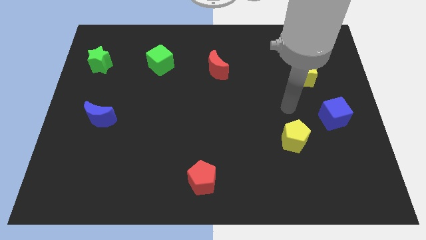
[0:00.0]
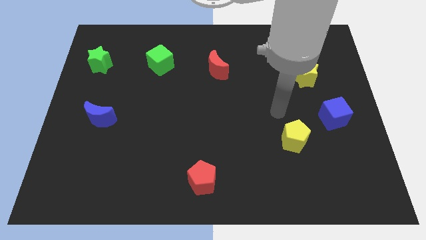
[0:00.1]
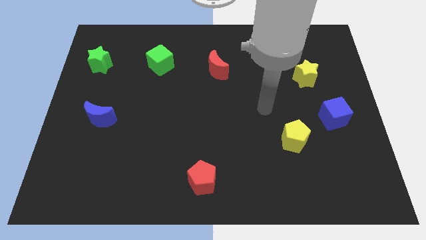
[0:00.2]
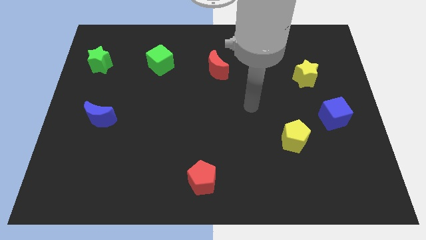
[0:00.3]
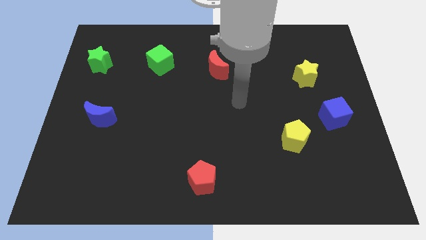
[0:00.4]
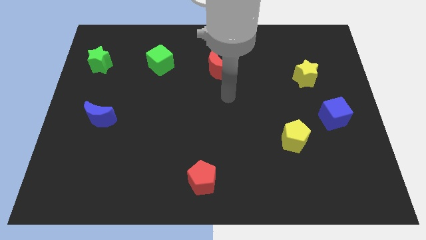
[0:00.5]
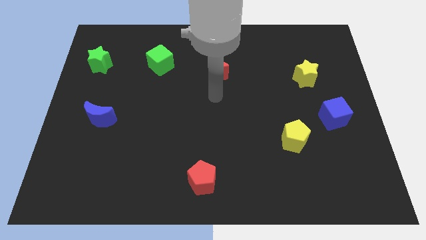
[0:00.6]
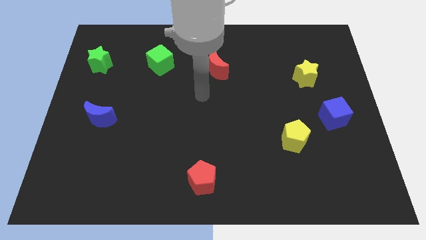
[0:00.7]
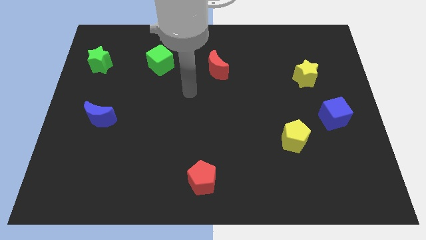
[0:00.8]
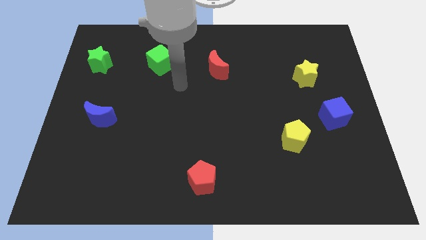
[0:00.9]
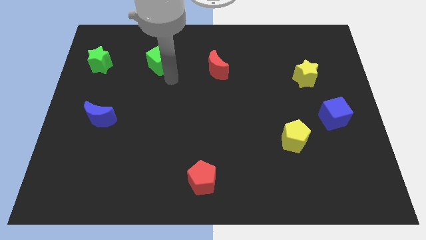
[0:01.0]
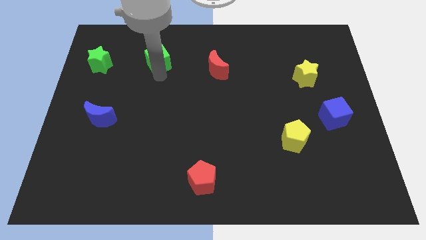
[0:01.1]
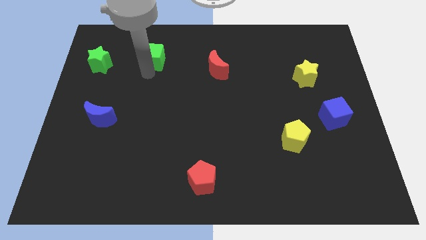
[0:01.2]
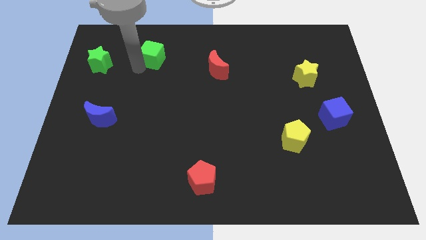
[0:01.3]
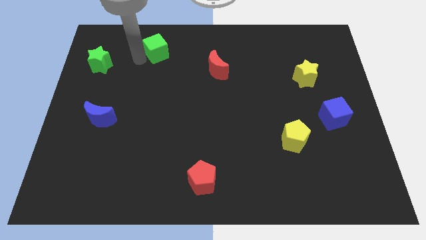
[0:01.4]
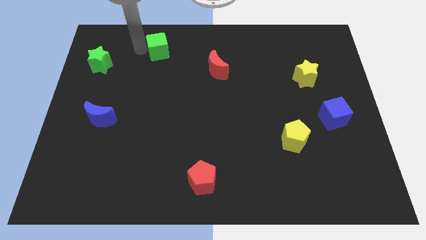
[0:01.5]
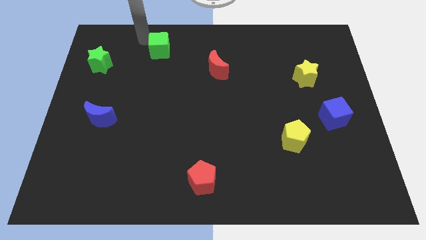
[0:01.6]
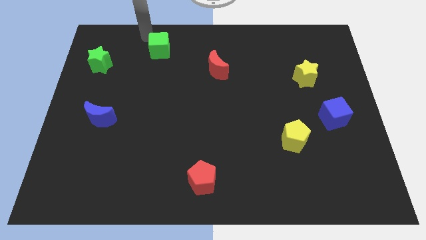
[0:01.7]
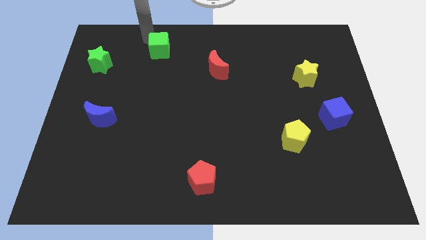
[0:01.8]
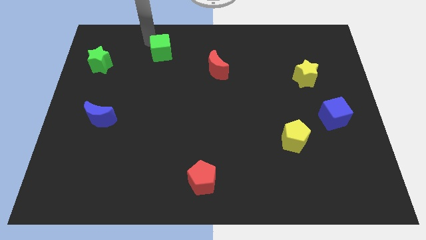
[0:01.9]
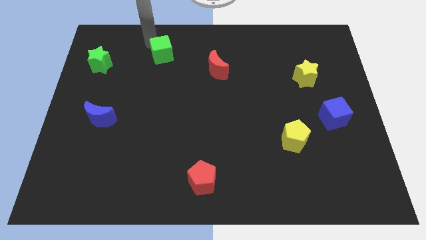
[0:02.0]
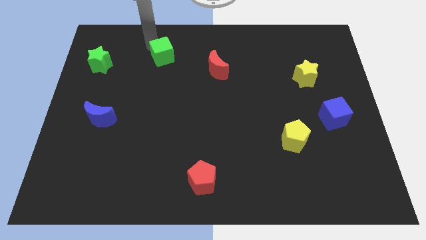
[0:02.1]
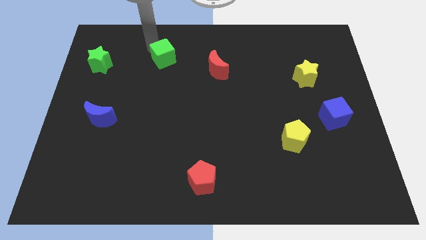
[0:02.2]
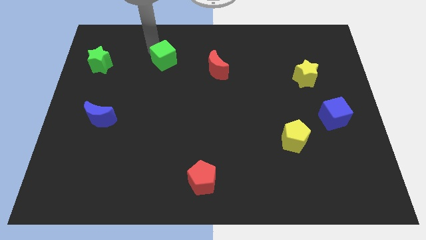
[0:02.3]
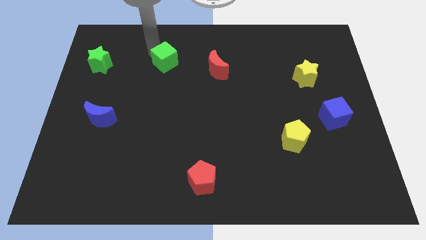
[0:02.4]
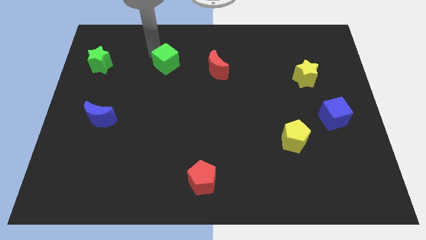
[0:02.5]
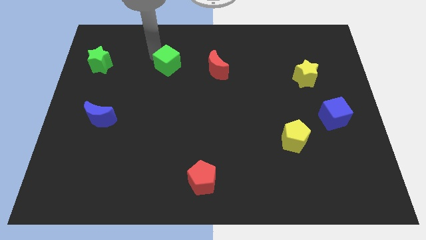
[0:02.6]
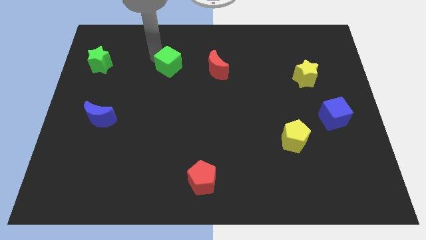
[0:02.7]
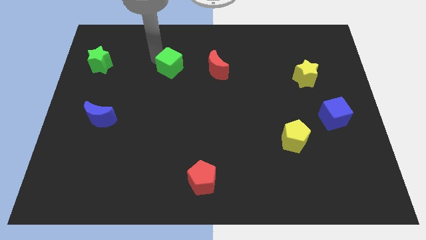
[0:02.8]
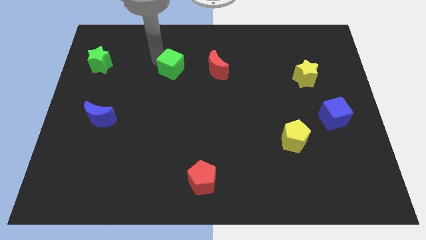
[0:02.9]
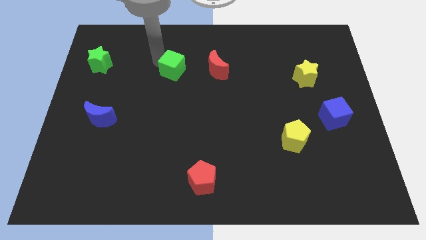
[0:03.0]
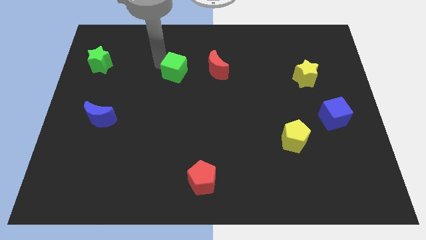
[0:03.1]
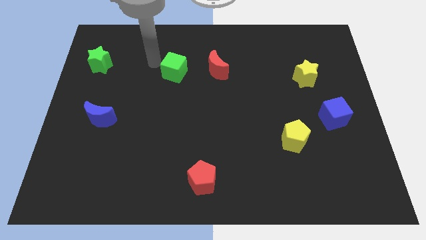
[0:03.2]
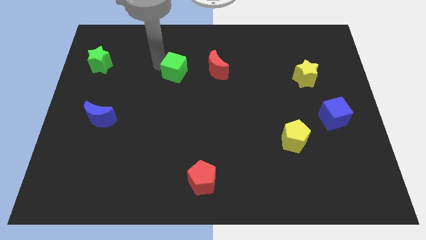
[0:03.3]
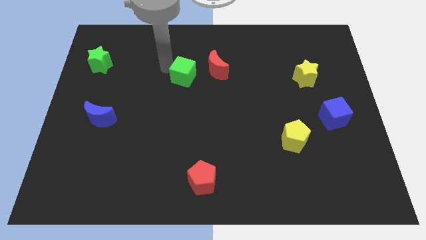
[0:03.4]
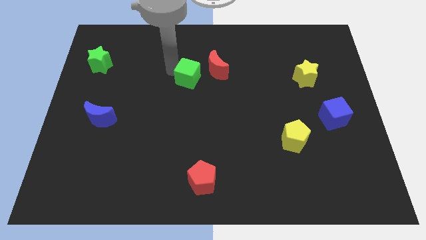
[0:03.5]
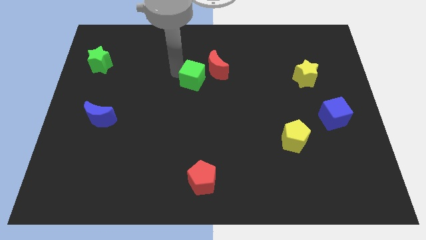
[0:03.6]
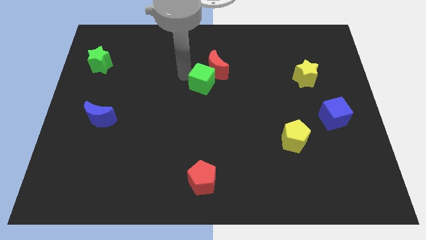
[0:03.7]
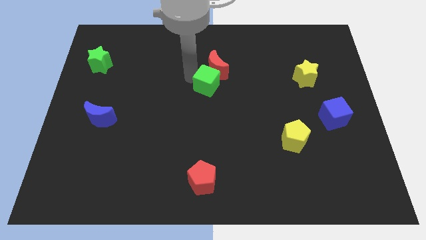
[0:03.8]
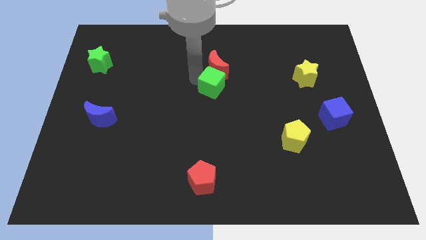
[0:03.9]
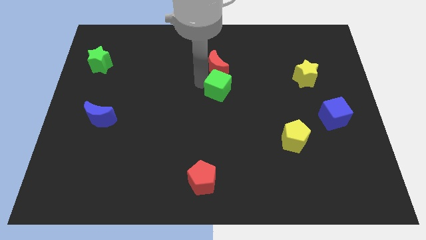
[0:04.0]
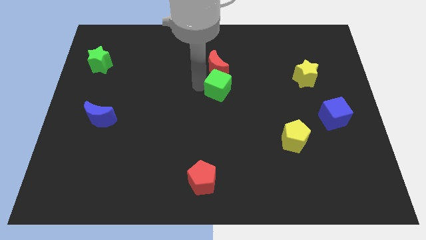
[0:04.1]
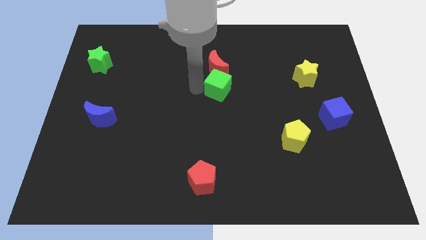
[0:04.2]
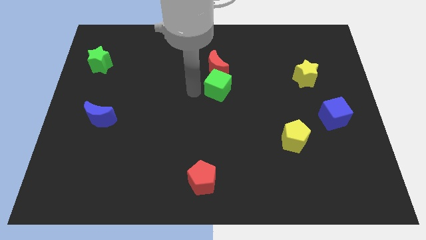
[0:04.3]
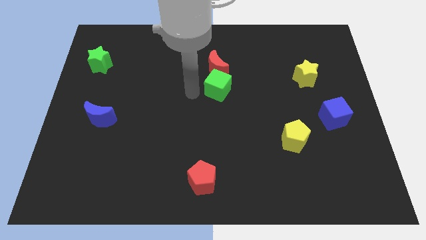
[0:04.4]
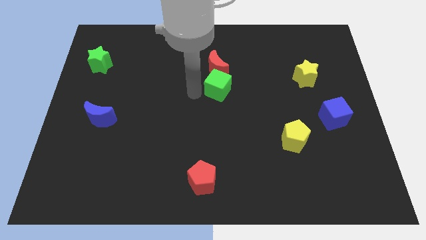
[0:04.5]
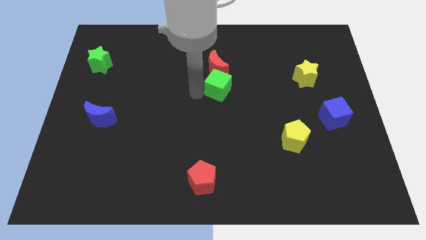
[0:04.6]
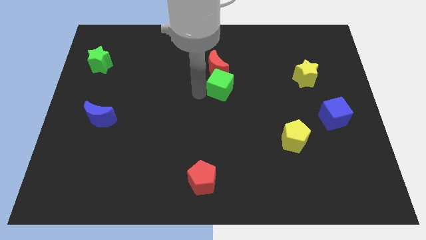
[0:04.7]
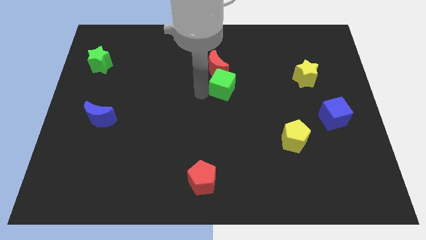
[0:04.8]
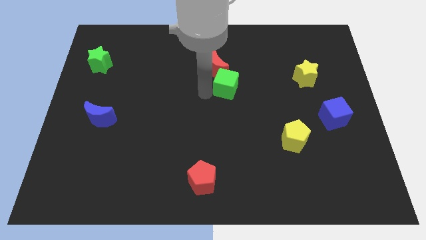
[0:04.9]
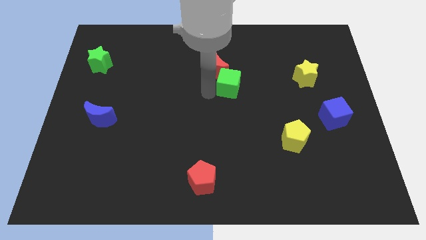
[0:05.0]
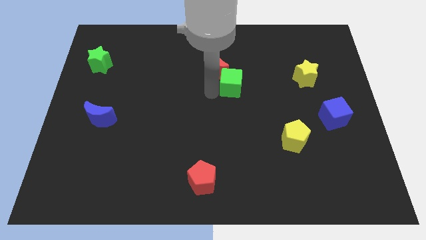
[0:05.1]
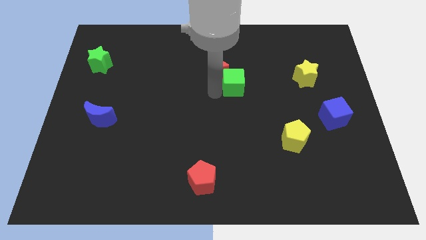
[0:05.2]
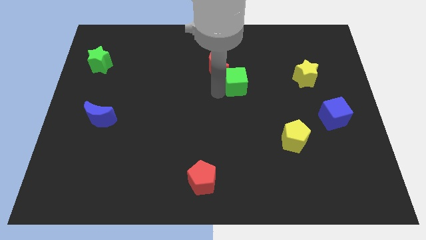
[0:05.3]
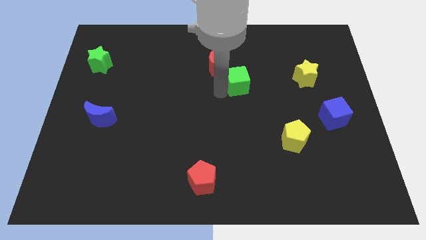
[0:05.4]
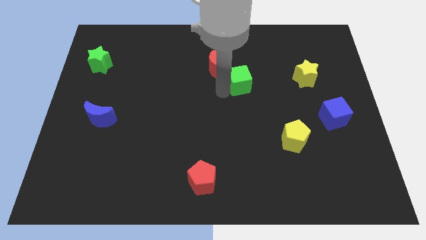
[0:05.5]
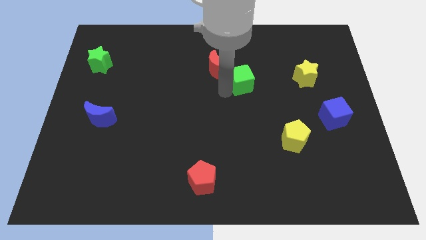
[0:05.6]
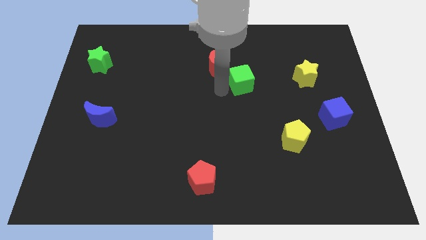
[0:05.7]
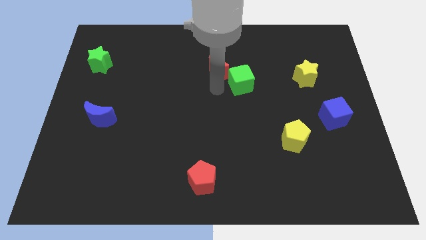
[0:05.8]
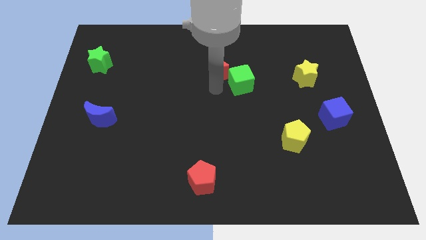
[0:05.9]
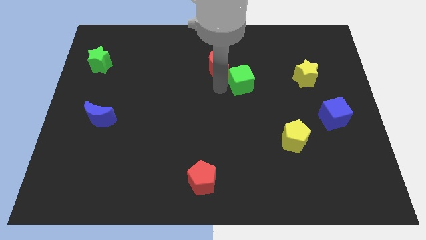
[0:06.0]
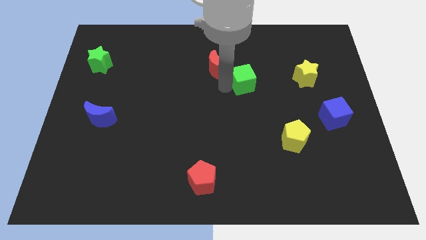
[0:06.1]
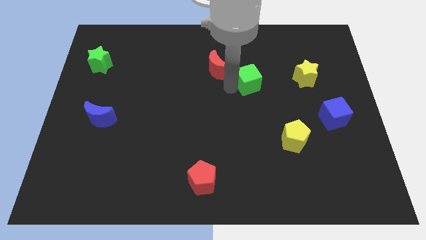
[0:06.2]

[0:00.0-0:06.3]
push the green cube right

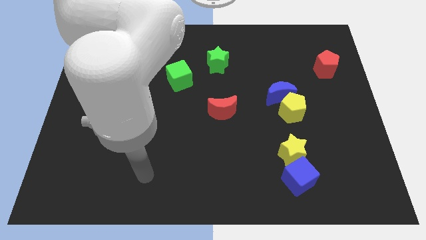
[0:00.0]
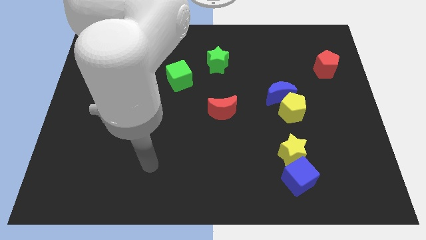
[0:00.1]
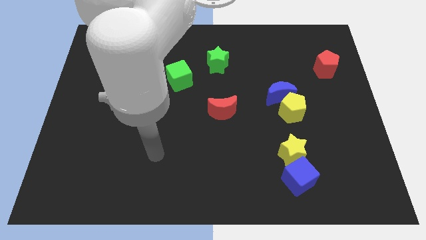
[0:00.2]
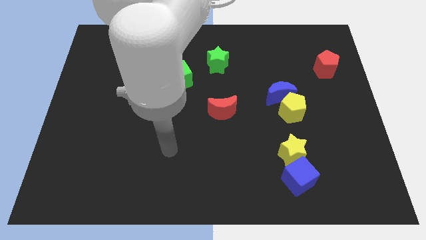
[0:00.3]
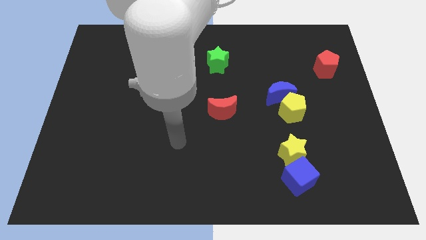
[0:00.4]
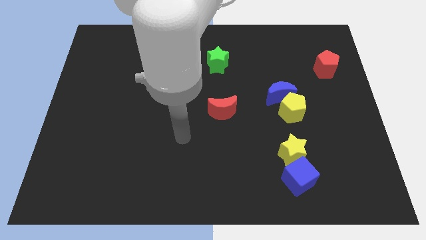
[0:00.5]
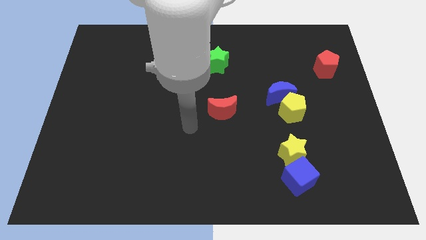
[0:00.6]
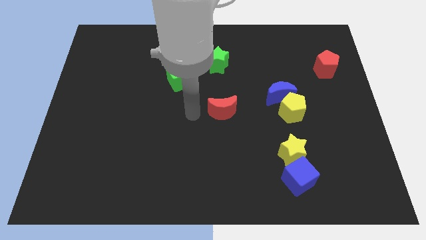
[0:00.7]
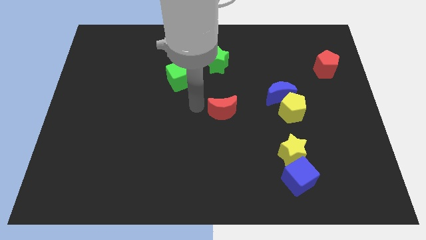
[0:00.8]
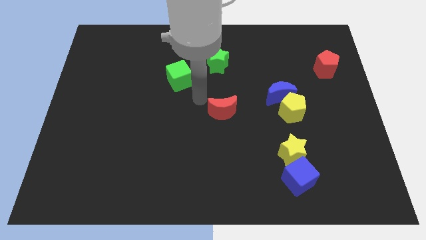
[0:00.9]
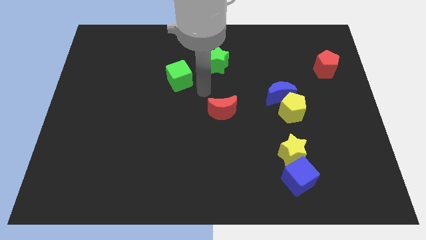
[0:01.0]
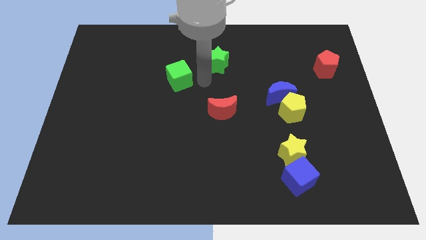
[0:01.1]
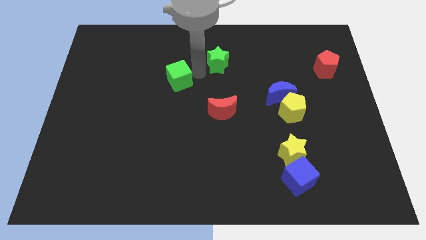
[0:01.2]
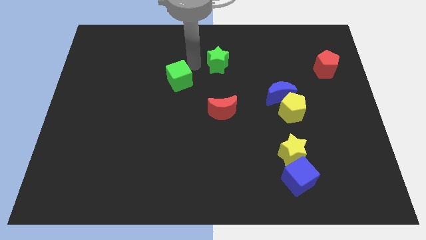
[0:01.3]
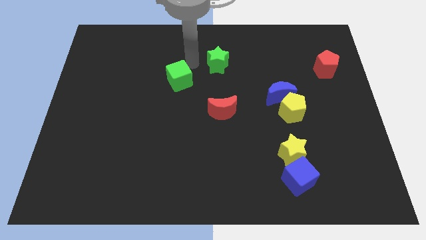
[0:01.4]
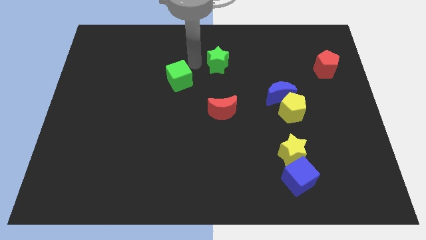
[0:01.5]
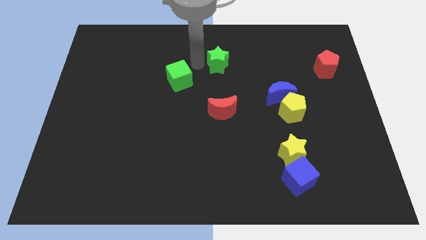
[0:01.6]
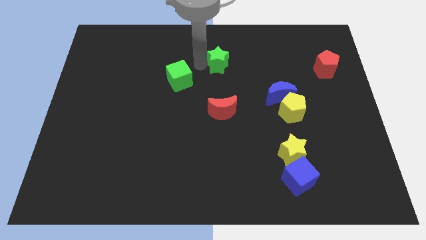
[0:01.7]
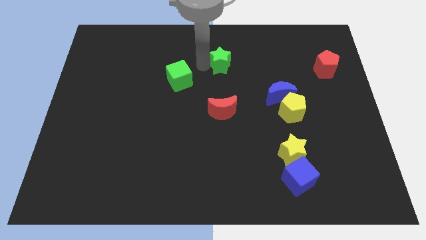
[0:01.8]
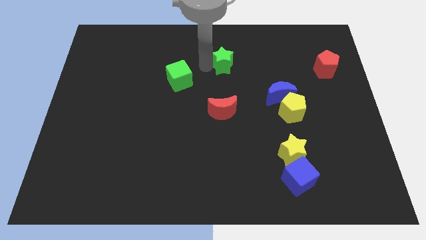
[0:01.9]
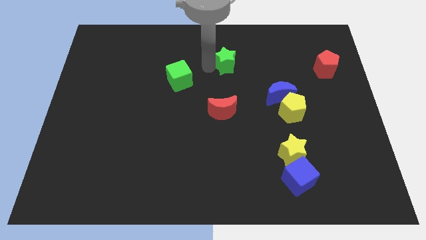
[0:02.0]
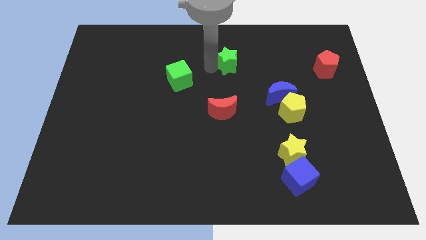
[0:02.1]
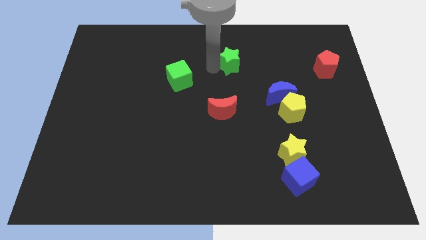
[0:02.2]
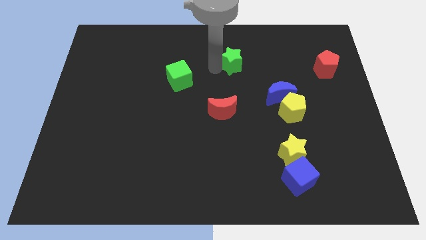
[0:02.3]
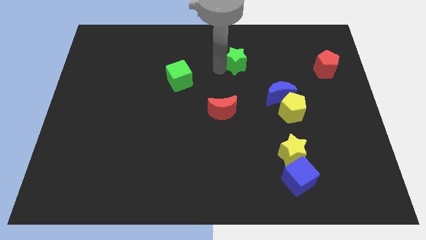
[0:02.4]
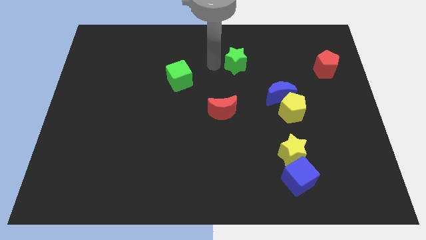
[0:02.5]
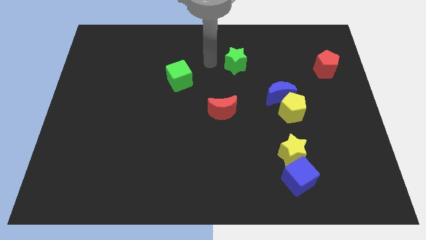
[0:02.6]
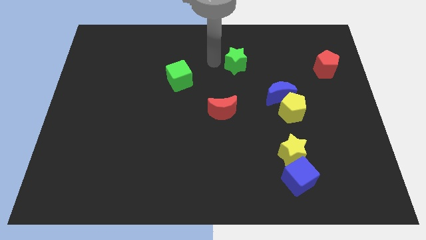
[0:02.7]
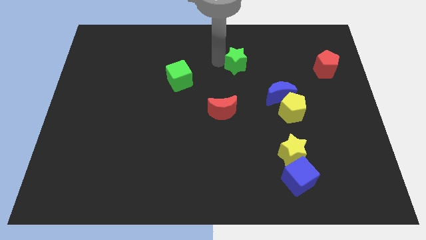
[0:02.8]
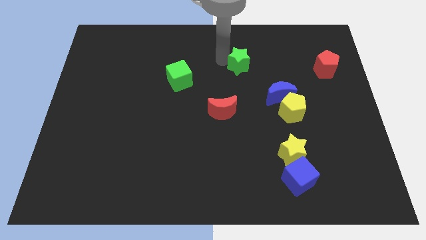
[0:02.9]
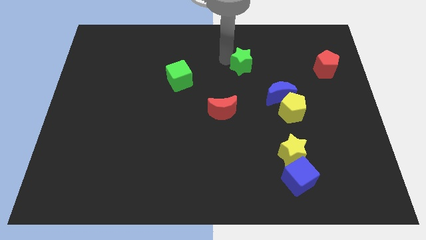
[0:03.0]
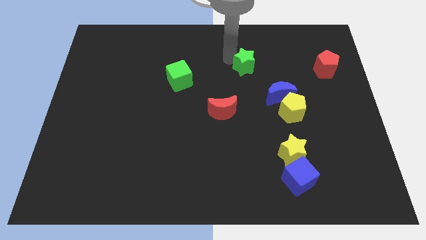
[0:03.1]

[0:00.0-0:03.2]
slightly slide the green star to the right
